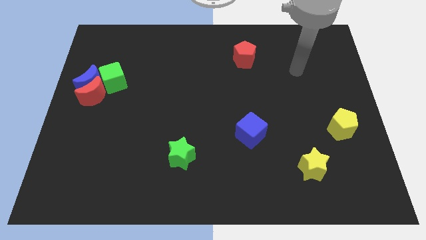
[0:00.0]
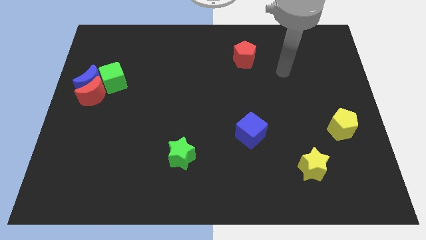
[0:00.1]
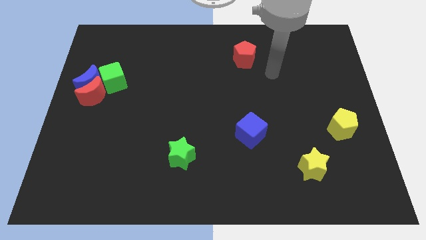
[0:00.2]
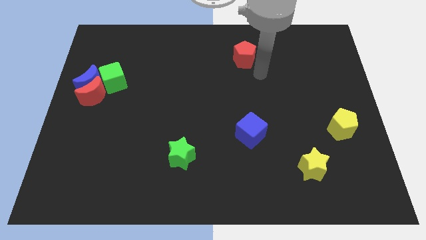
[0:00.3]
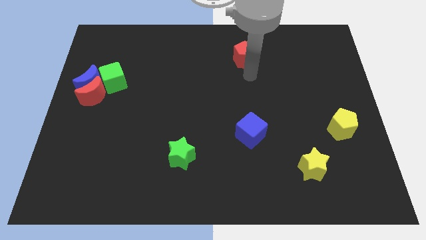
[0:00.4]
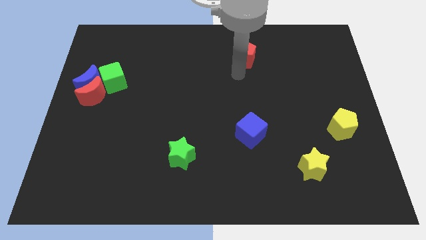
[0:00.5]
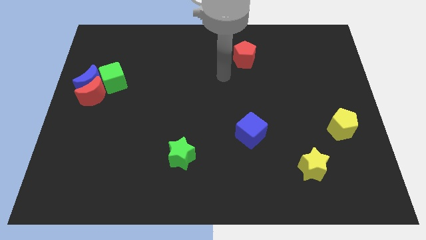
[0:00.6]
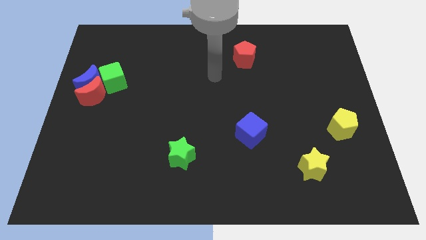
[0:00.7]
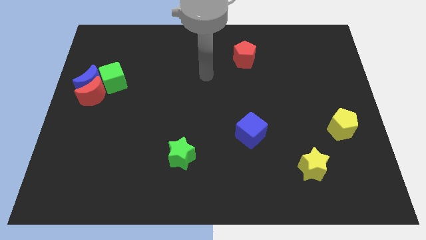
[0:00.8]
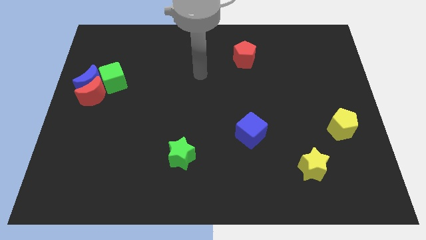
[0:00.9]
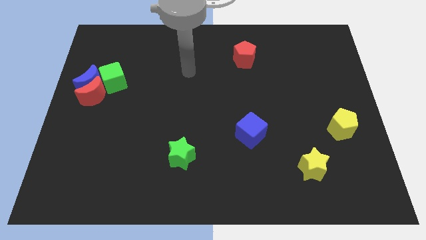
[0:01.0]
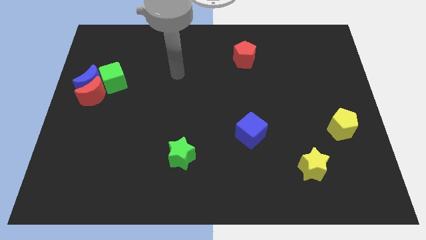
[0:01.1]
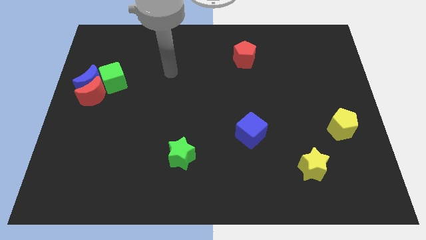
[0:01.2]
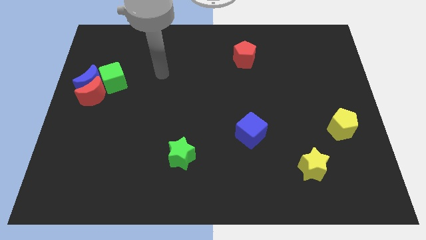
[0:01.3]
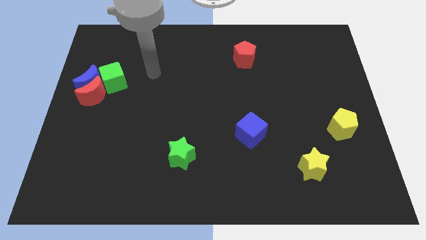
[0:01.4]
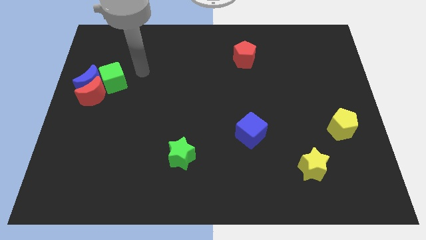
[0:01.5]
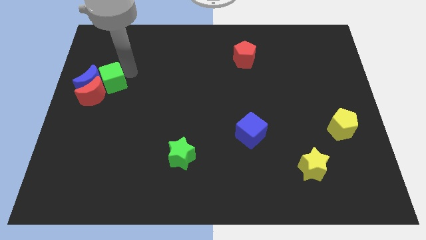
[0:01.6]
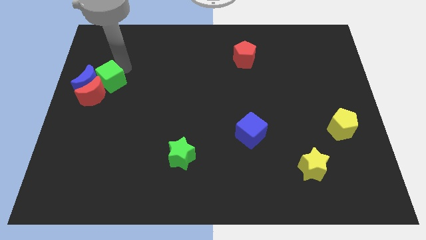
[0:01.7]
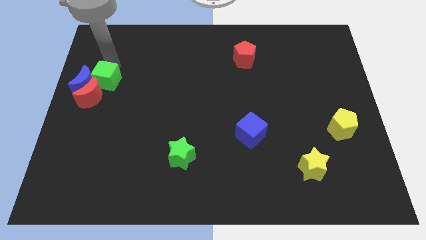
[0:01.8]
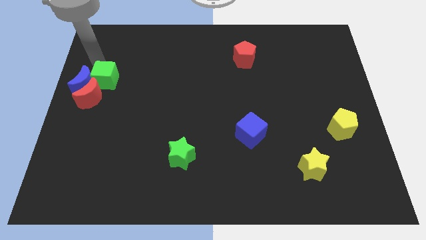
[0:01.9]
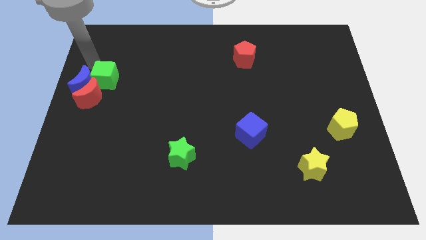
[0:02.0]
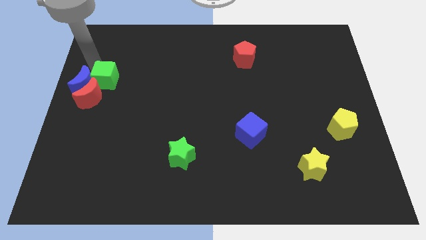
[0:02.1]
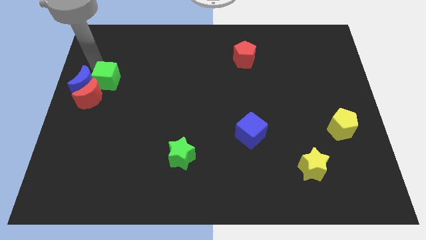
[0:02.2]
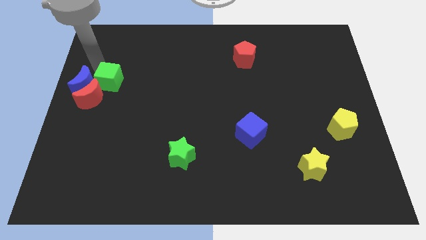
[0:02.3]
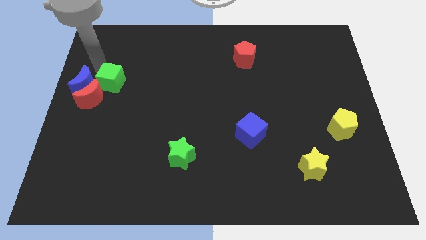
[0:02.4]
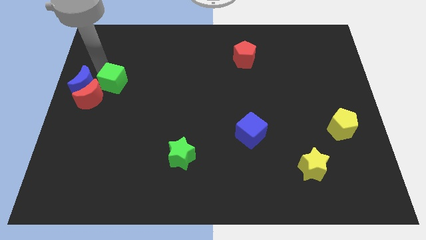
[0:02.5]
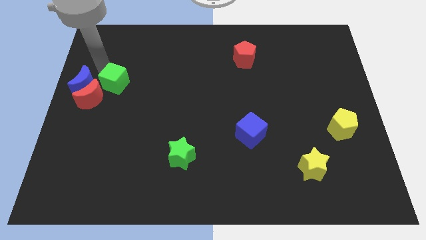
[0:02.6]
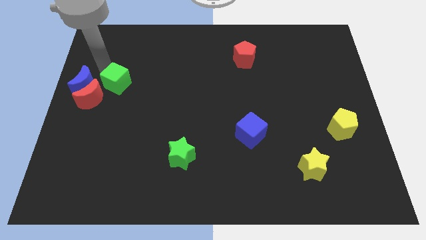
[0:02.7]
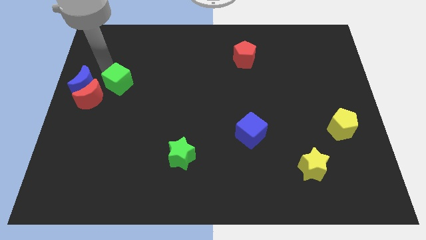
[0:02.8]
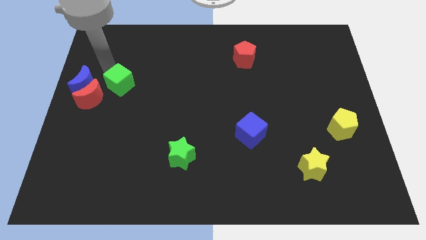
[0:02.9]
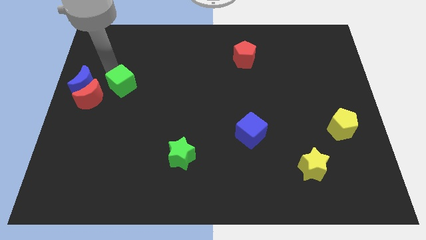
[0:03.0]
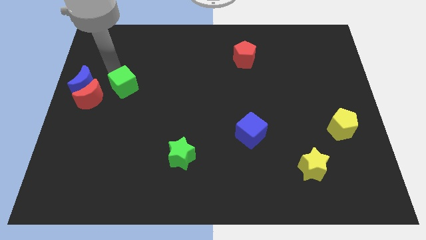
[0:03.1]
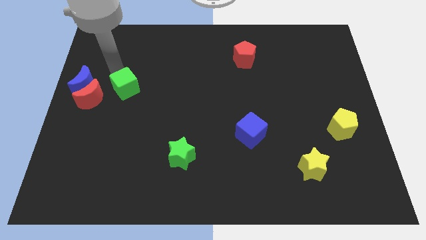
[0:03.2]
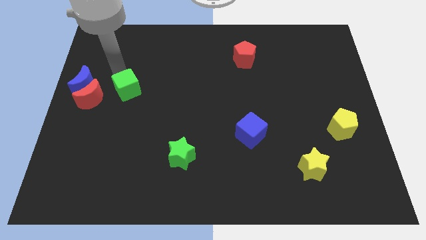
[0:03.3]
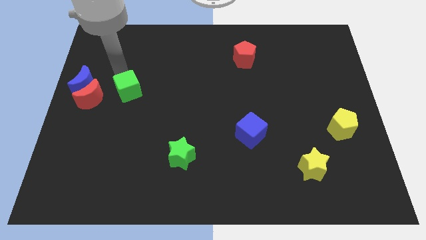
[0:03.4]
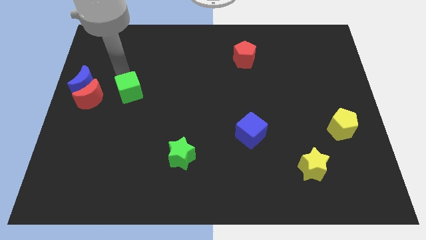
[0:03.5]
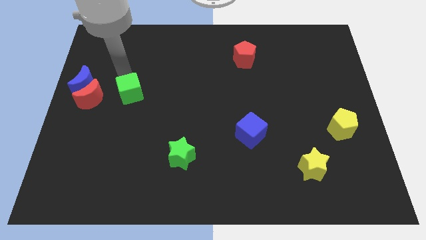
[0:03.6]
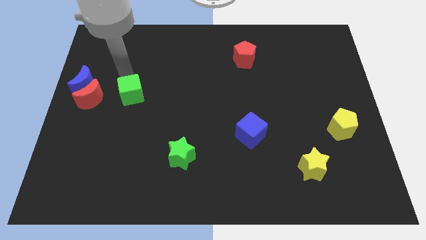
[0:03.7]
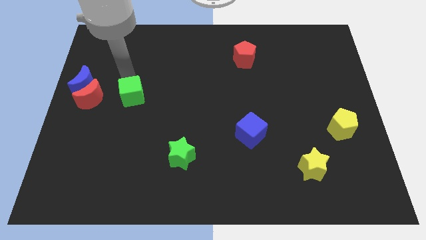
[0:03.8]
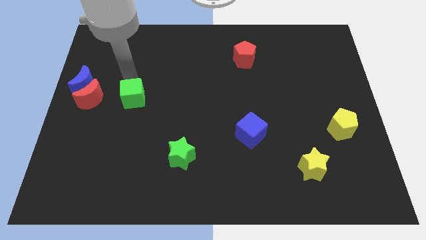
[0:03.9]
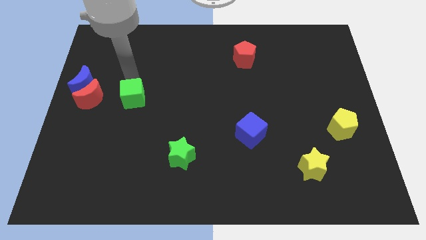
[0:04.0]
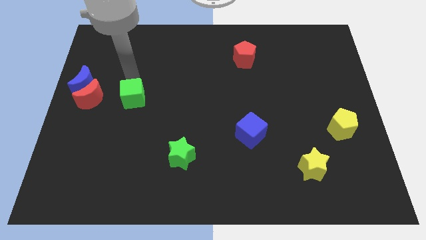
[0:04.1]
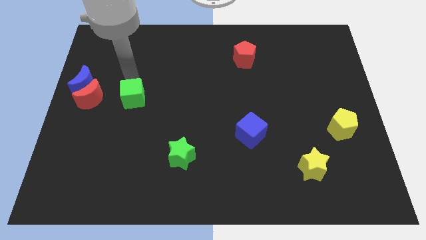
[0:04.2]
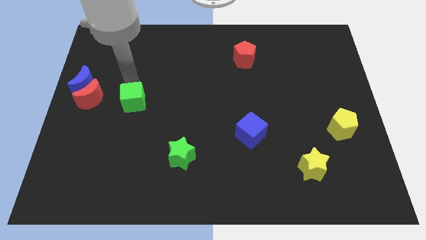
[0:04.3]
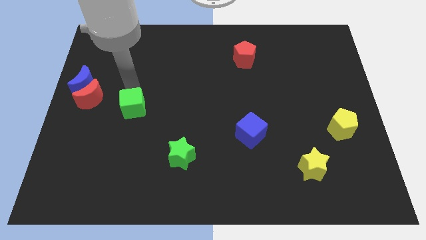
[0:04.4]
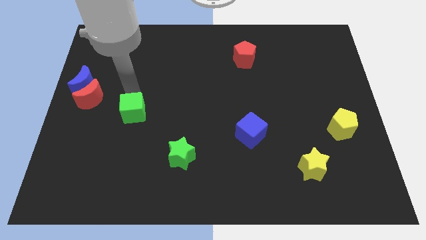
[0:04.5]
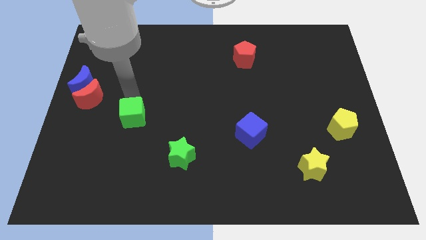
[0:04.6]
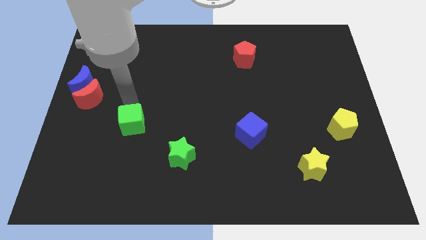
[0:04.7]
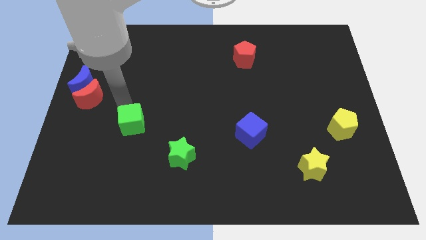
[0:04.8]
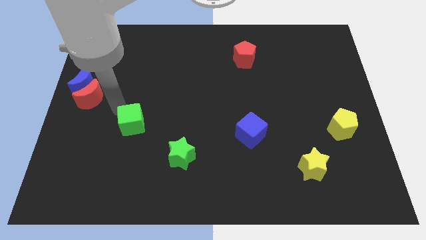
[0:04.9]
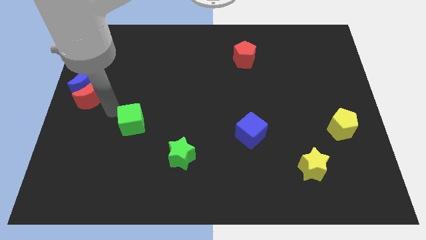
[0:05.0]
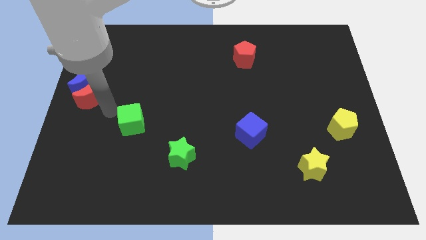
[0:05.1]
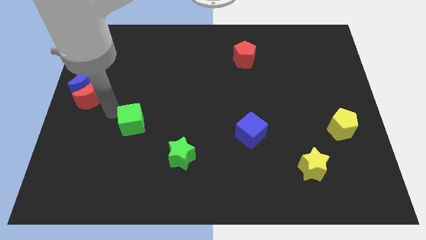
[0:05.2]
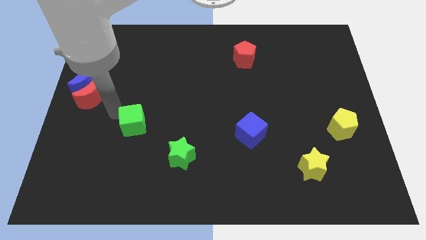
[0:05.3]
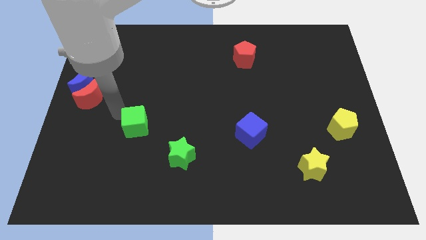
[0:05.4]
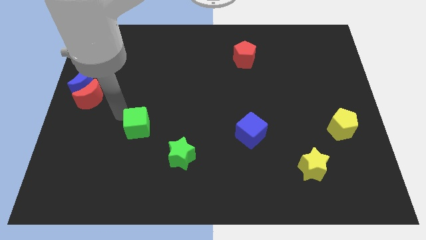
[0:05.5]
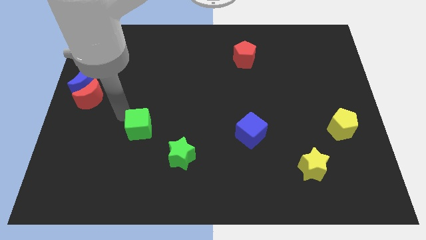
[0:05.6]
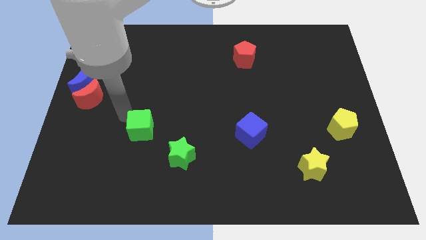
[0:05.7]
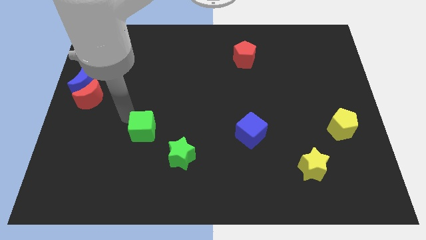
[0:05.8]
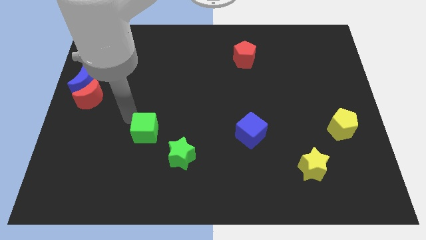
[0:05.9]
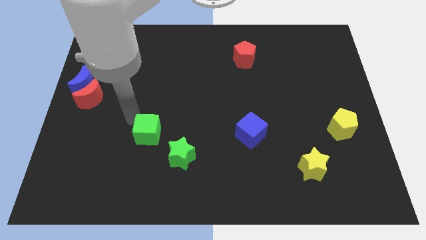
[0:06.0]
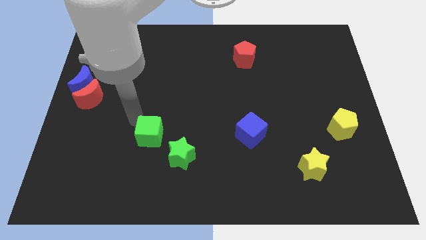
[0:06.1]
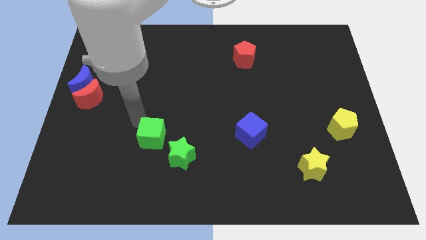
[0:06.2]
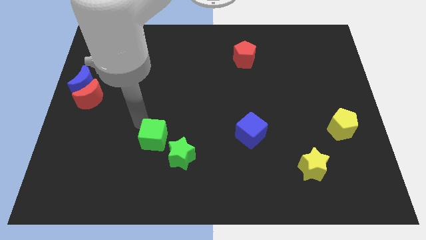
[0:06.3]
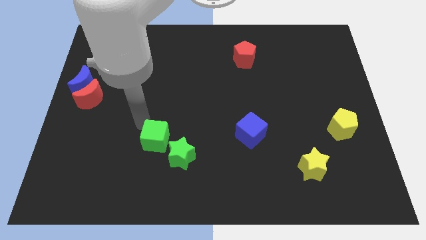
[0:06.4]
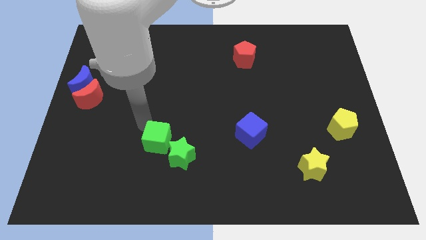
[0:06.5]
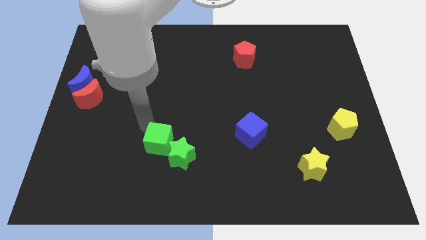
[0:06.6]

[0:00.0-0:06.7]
put the green cube next to the green star

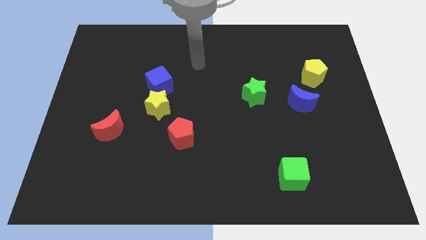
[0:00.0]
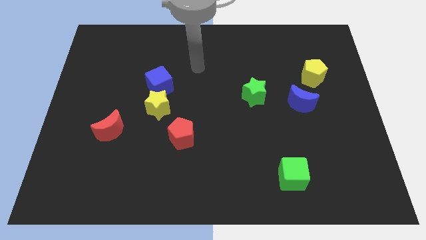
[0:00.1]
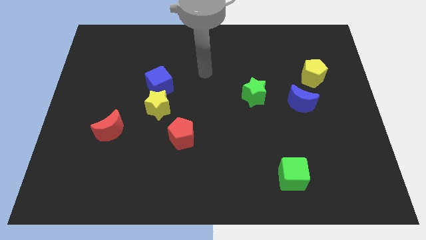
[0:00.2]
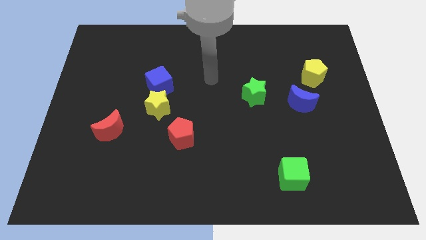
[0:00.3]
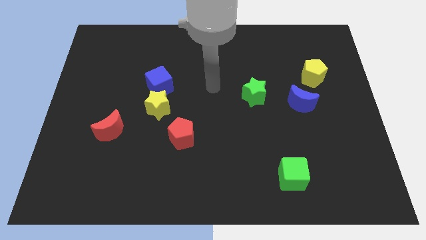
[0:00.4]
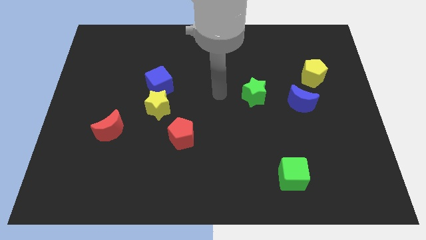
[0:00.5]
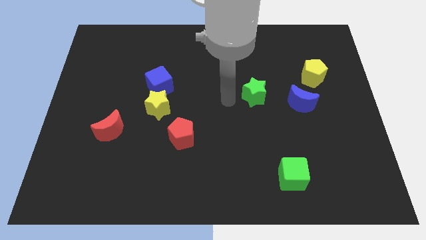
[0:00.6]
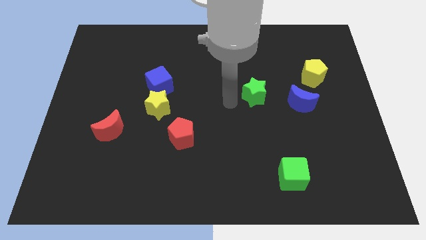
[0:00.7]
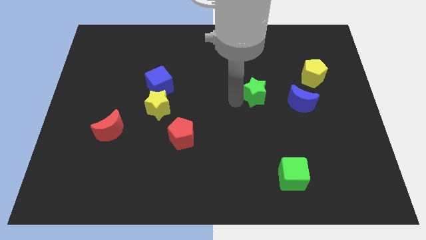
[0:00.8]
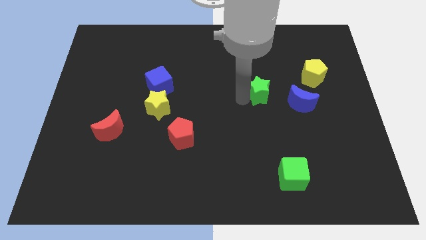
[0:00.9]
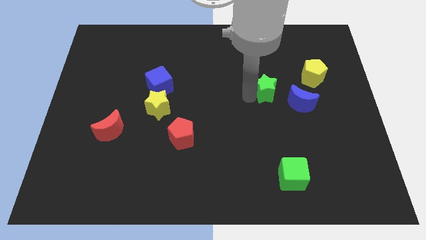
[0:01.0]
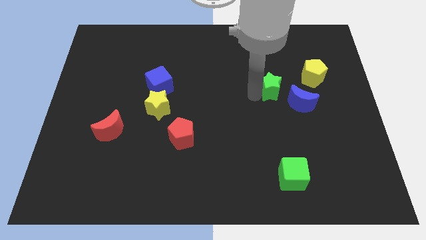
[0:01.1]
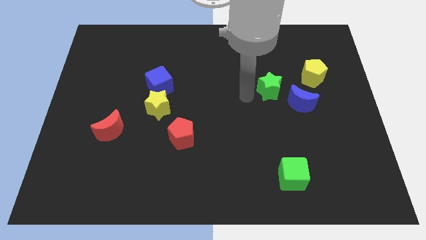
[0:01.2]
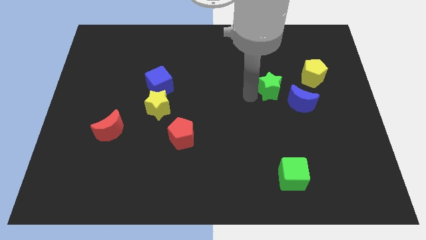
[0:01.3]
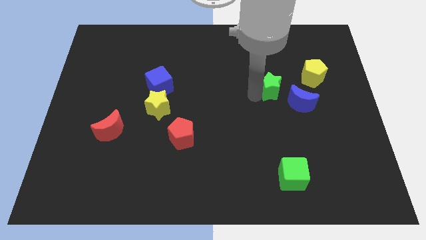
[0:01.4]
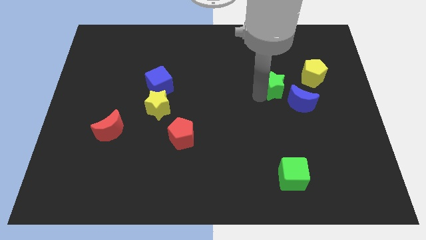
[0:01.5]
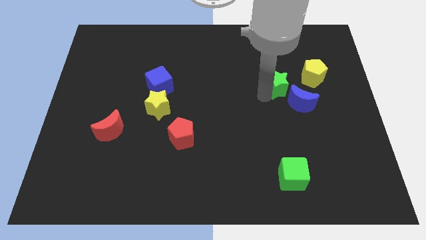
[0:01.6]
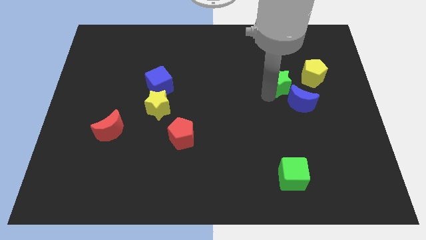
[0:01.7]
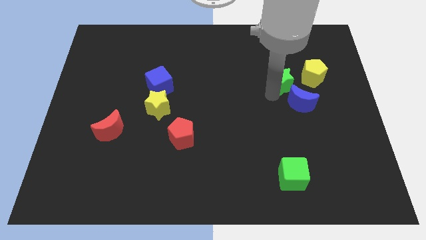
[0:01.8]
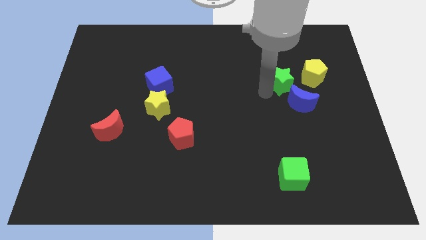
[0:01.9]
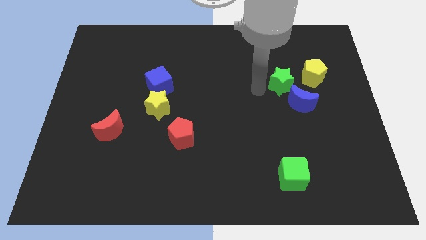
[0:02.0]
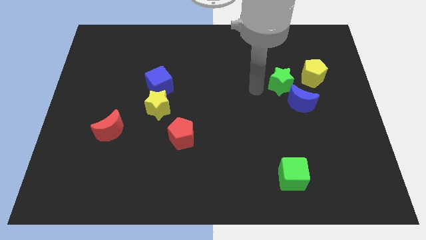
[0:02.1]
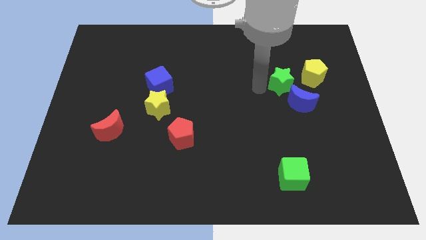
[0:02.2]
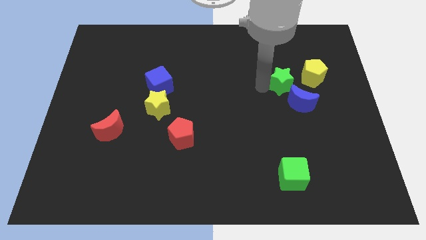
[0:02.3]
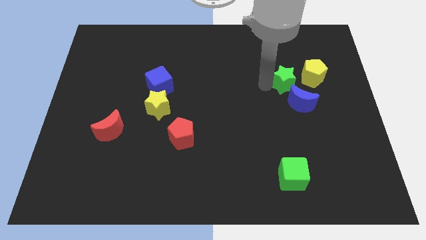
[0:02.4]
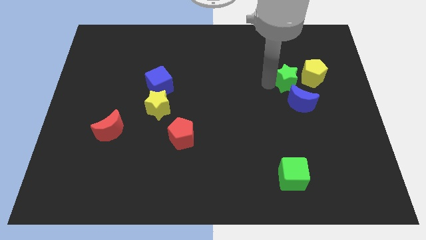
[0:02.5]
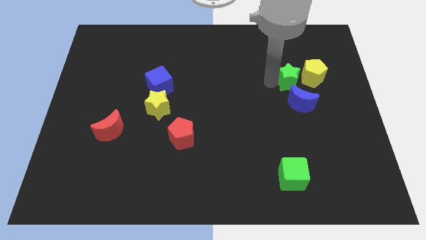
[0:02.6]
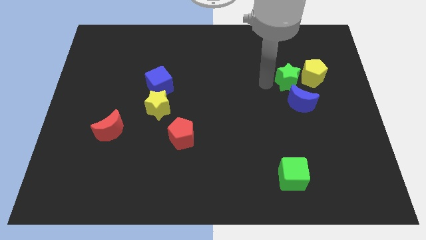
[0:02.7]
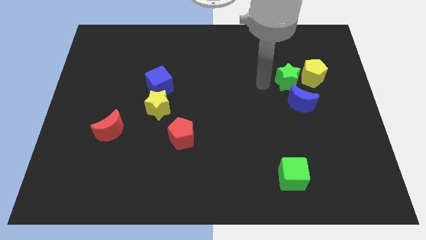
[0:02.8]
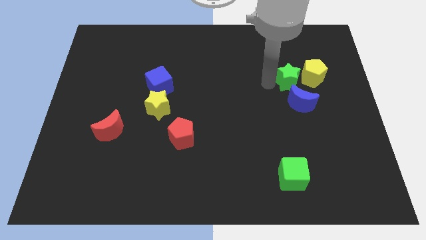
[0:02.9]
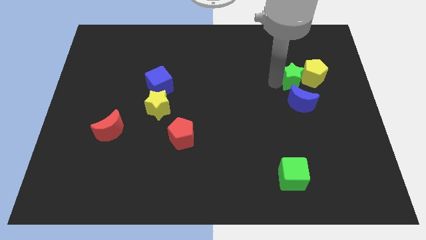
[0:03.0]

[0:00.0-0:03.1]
push the green star close to the yellow pentagon
